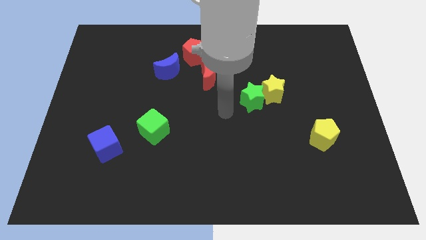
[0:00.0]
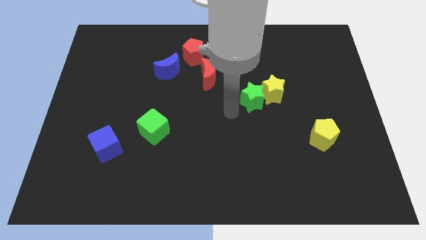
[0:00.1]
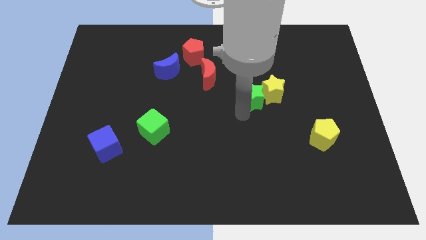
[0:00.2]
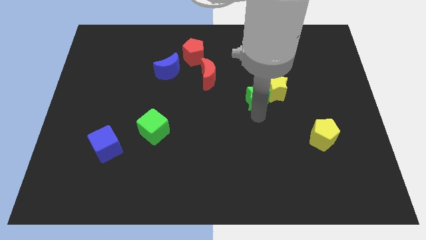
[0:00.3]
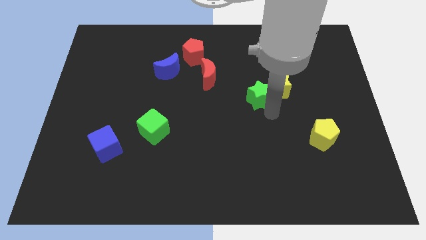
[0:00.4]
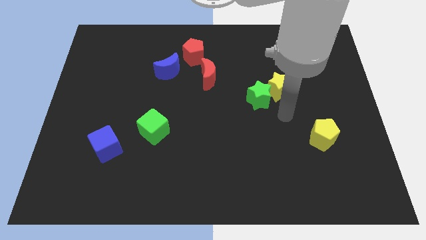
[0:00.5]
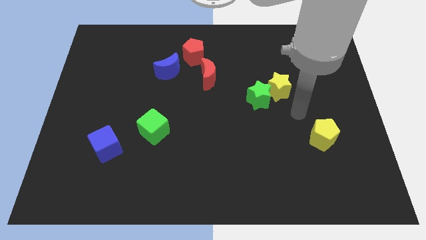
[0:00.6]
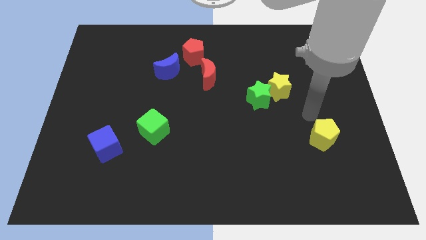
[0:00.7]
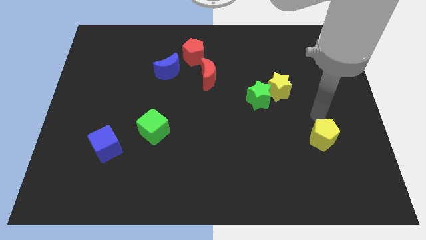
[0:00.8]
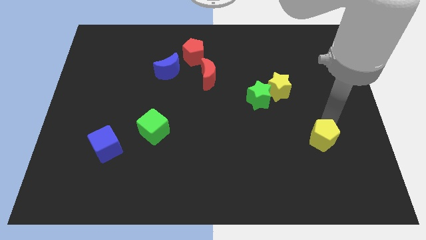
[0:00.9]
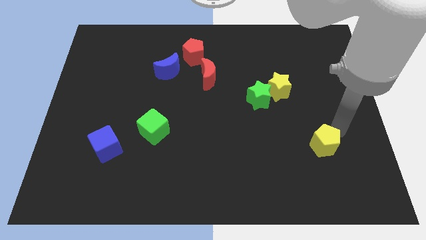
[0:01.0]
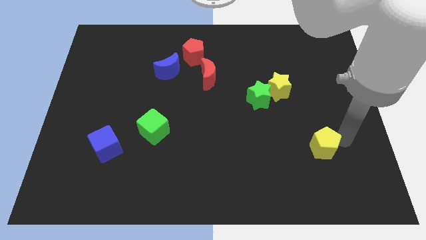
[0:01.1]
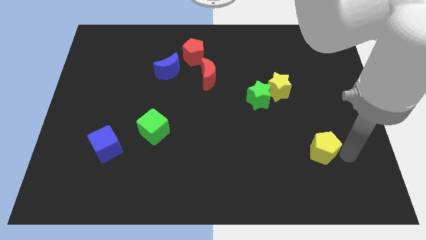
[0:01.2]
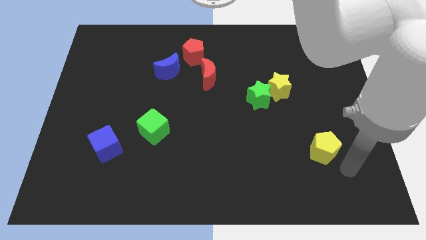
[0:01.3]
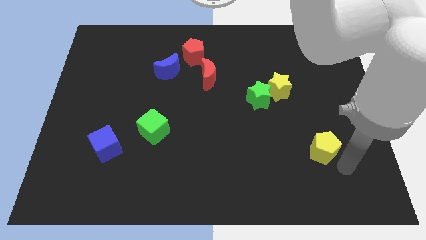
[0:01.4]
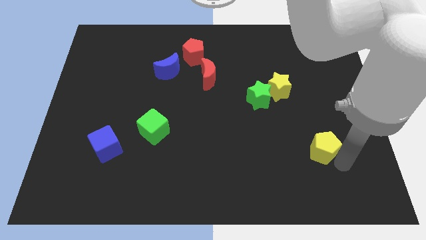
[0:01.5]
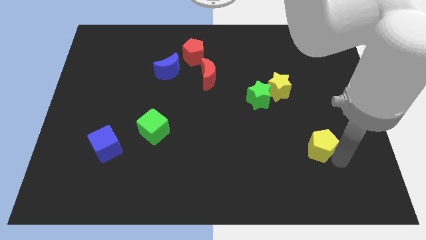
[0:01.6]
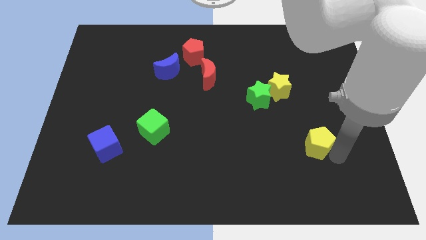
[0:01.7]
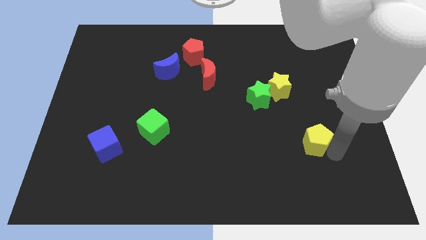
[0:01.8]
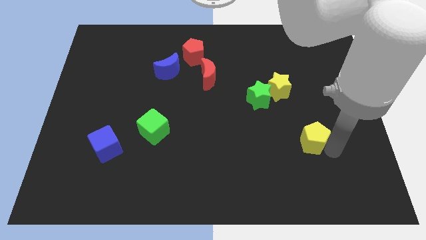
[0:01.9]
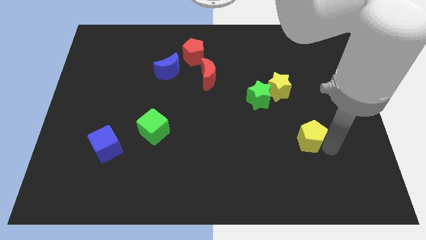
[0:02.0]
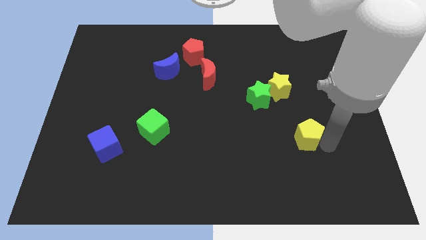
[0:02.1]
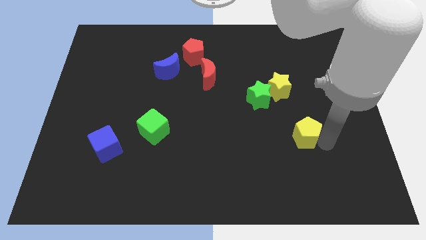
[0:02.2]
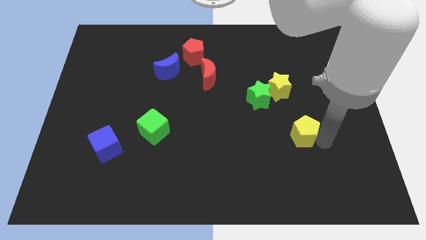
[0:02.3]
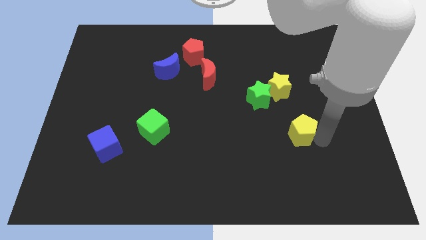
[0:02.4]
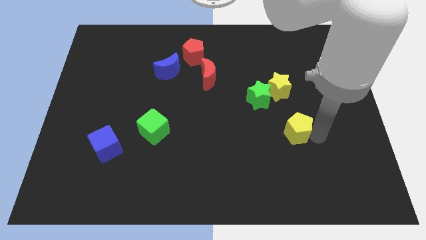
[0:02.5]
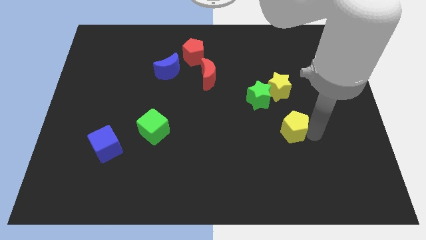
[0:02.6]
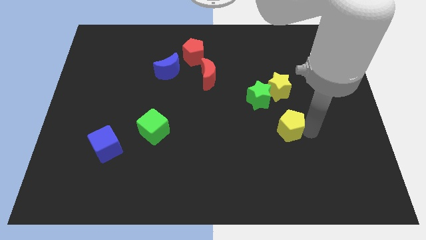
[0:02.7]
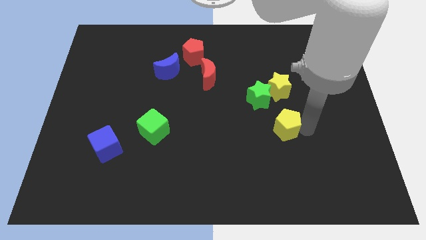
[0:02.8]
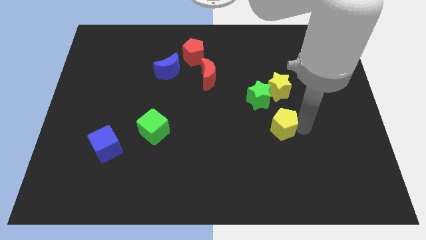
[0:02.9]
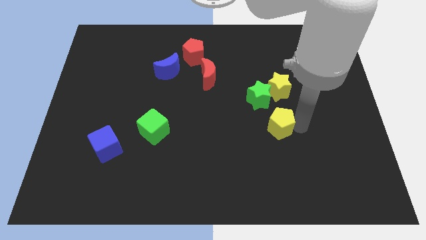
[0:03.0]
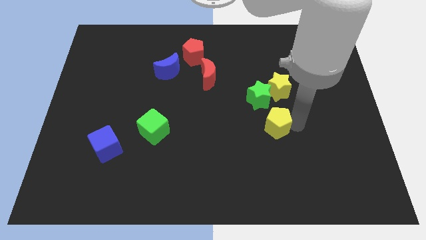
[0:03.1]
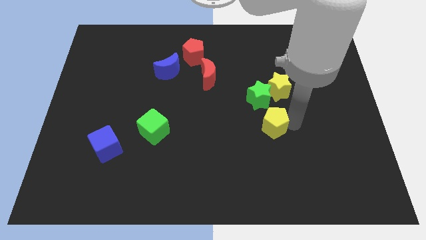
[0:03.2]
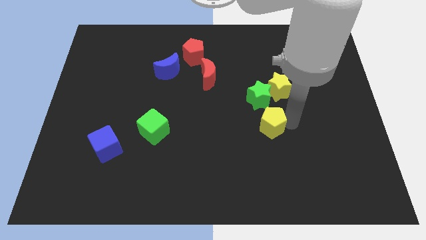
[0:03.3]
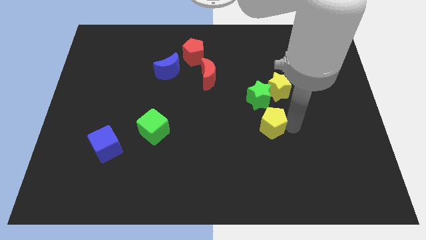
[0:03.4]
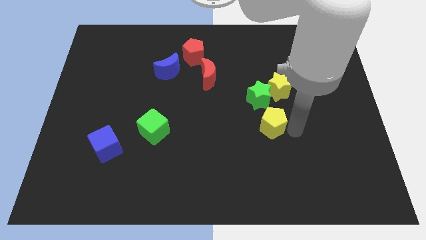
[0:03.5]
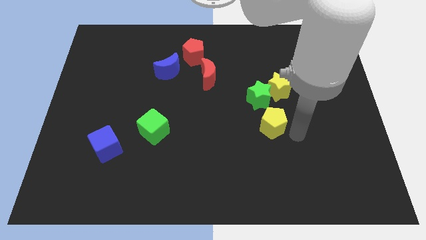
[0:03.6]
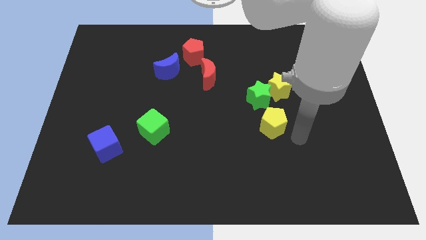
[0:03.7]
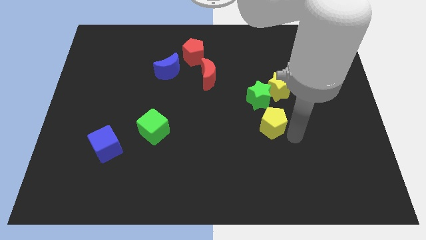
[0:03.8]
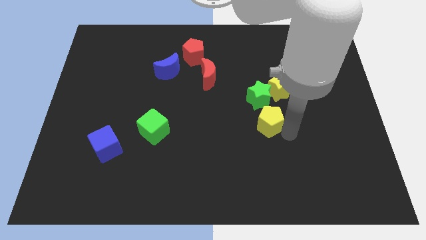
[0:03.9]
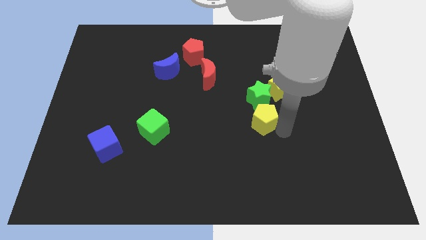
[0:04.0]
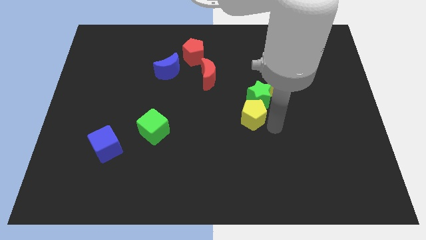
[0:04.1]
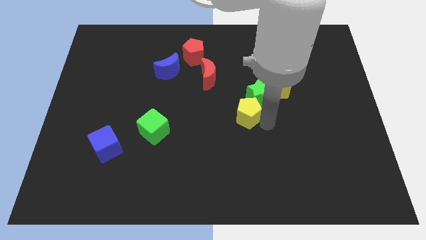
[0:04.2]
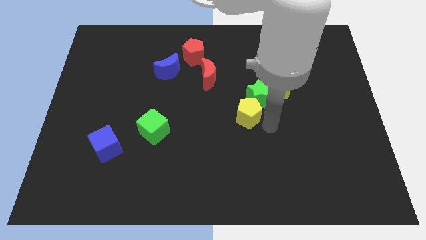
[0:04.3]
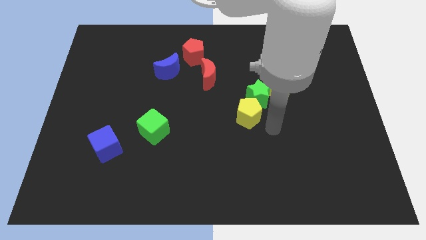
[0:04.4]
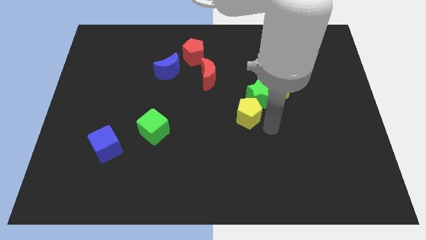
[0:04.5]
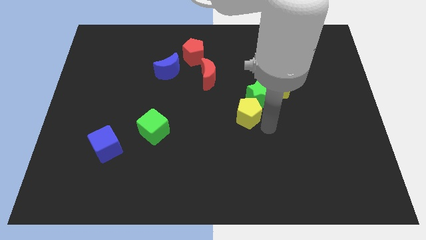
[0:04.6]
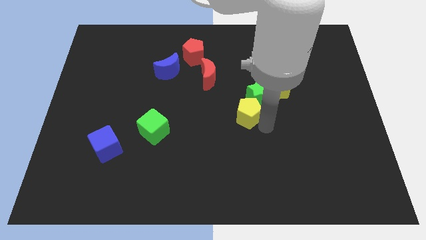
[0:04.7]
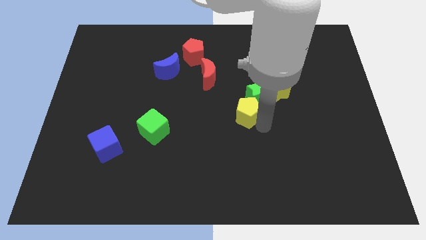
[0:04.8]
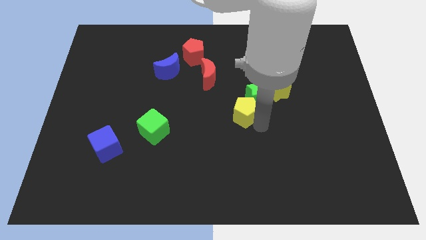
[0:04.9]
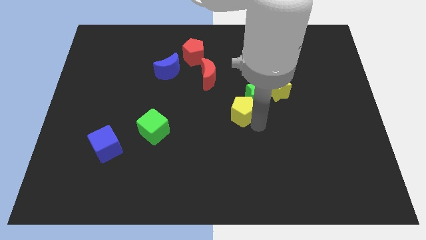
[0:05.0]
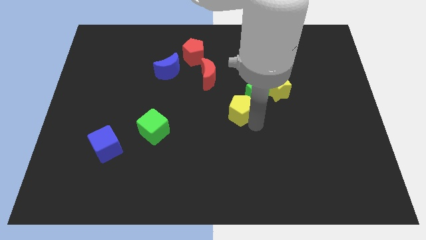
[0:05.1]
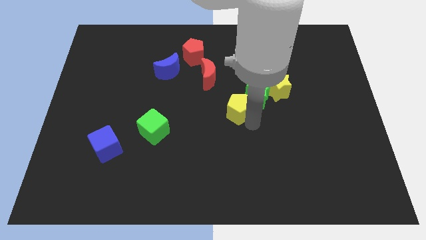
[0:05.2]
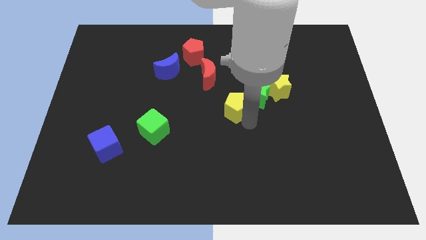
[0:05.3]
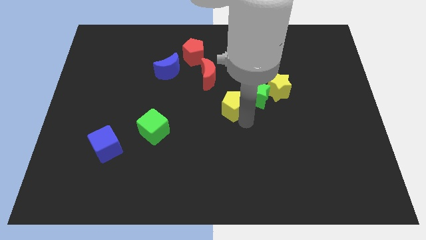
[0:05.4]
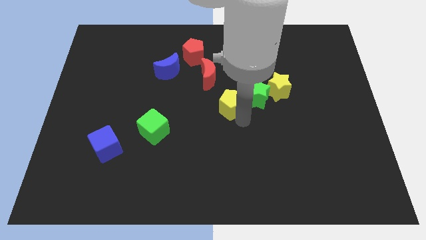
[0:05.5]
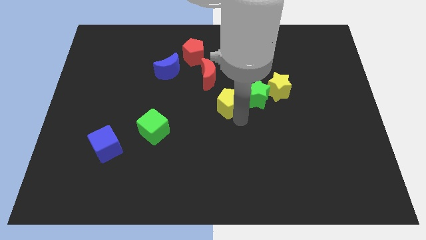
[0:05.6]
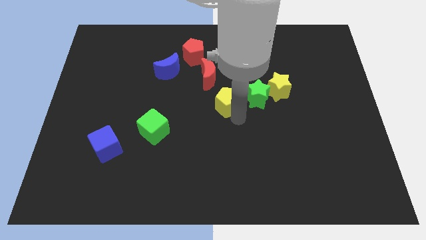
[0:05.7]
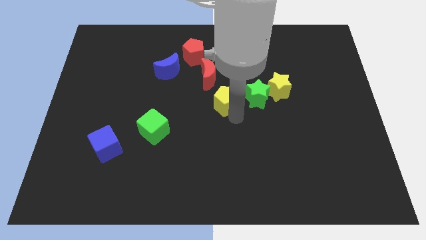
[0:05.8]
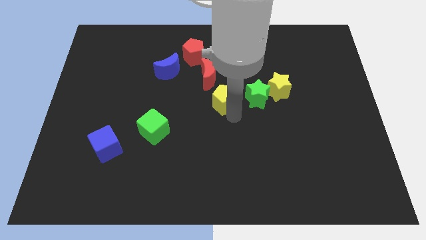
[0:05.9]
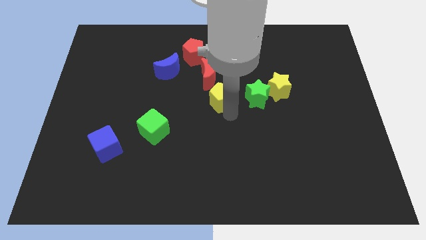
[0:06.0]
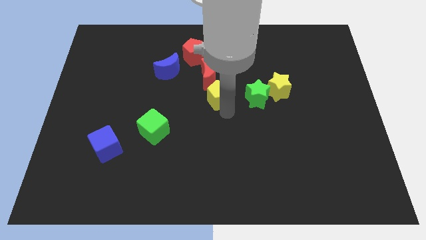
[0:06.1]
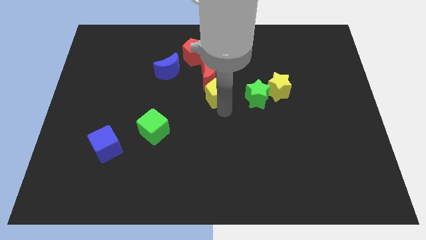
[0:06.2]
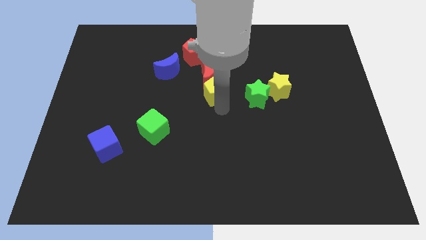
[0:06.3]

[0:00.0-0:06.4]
push the yellow pentagon close to the red moon

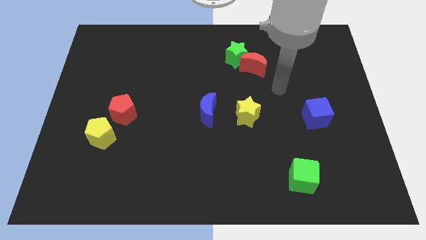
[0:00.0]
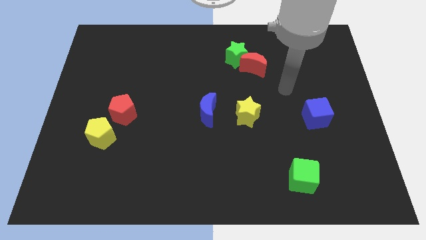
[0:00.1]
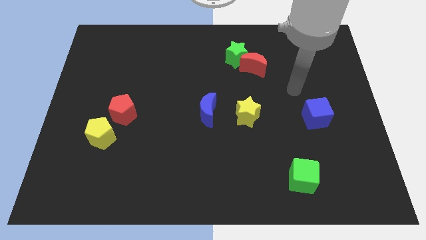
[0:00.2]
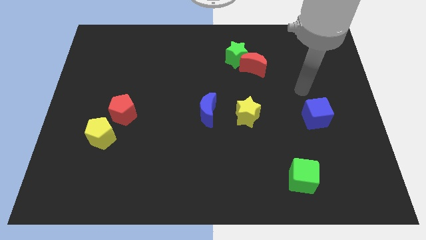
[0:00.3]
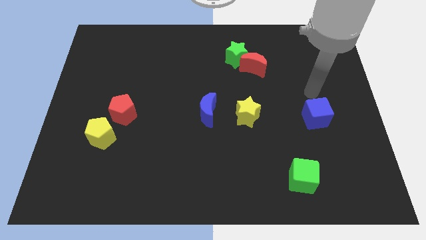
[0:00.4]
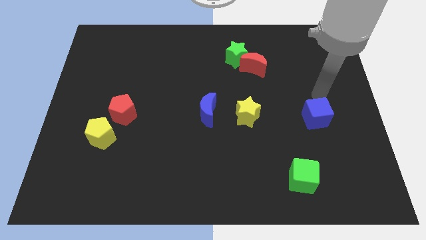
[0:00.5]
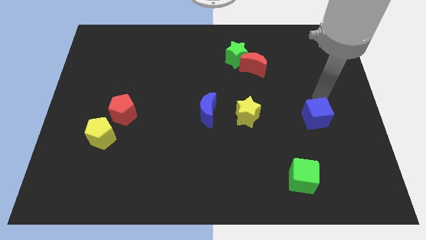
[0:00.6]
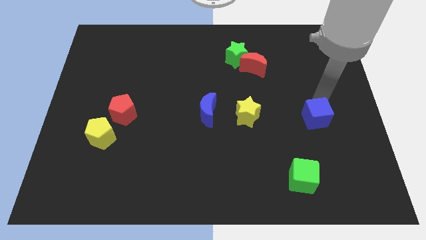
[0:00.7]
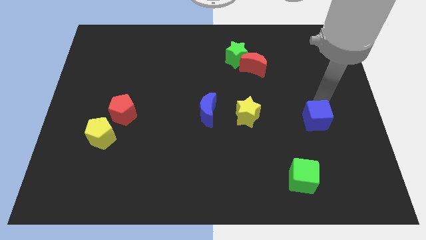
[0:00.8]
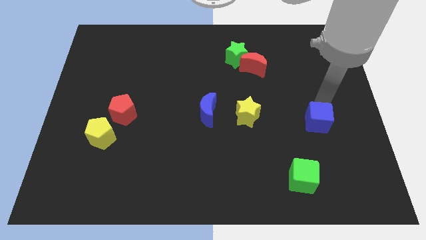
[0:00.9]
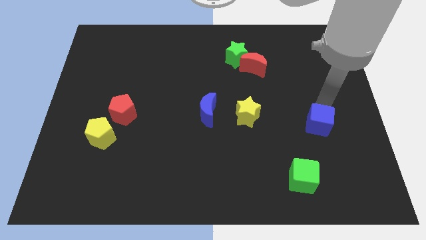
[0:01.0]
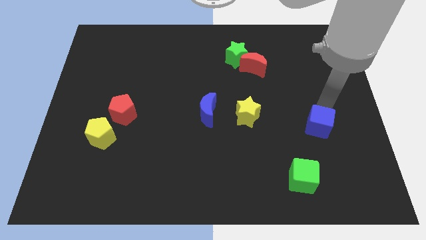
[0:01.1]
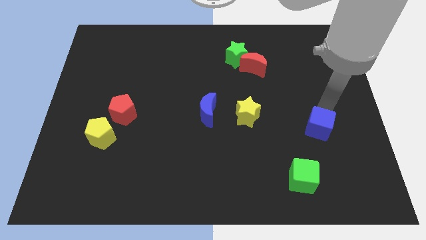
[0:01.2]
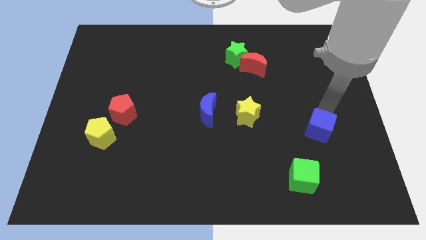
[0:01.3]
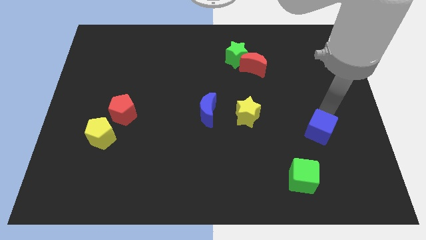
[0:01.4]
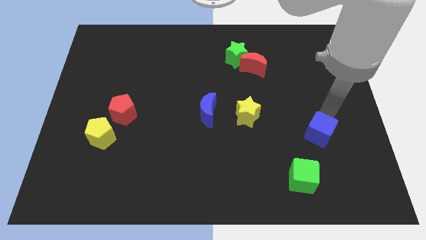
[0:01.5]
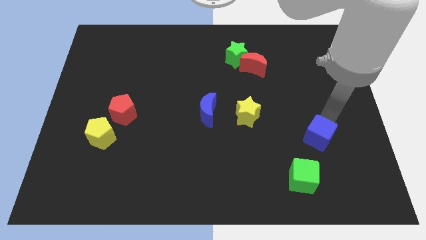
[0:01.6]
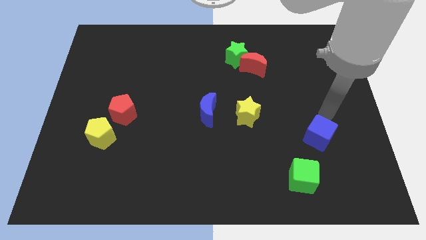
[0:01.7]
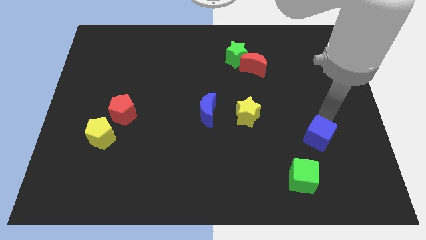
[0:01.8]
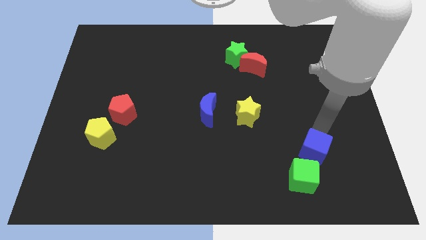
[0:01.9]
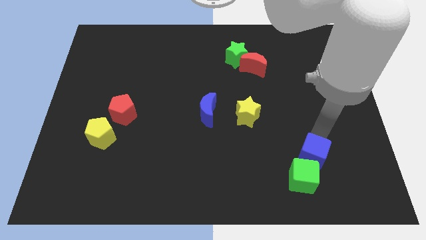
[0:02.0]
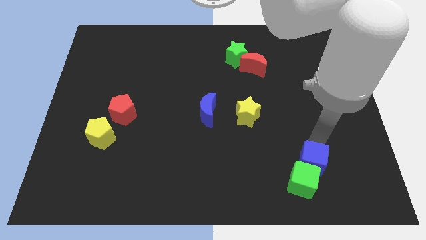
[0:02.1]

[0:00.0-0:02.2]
move the blue cube towards the green cube
